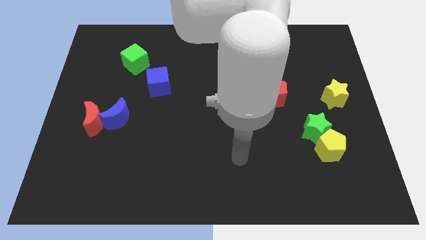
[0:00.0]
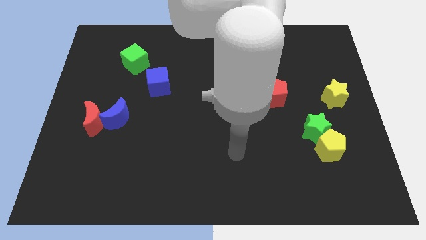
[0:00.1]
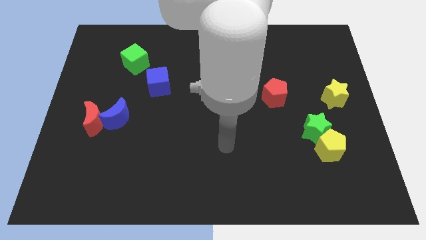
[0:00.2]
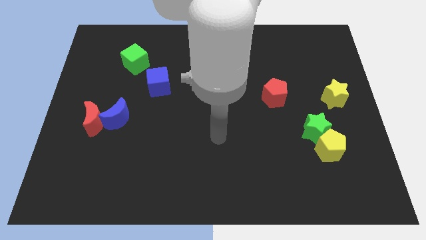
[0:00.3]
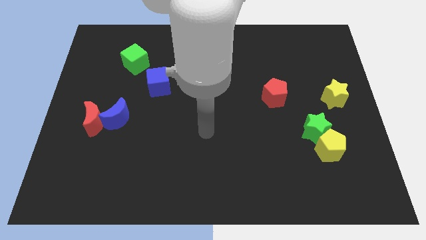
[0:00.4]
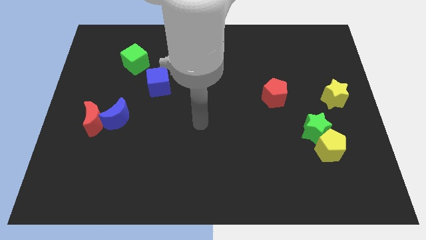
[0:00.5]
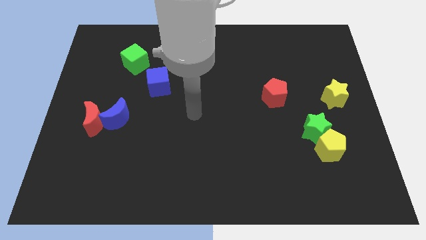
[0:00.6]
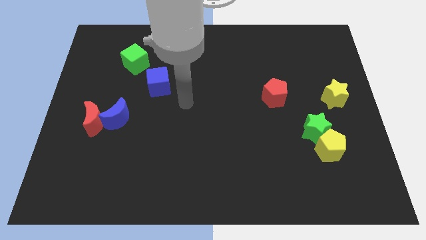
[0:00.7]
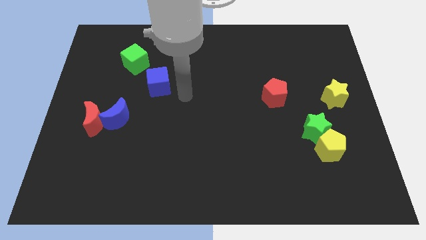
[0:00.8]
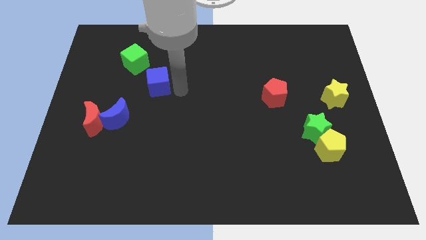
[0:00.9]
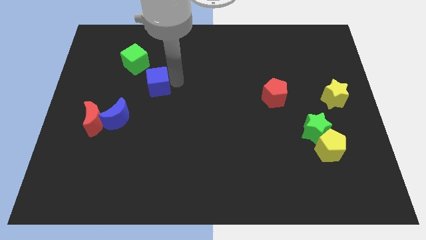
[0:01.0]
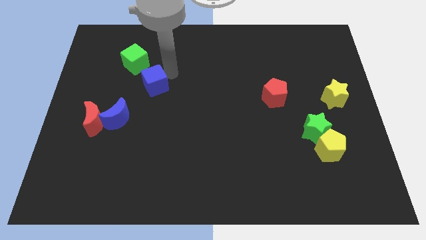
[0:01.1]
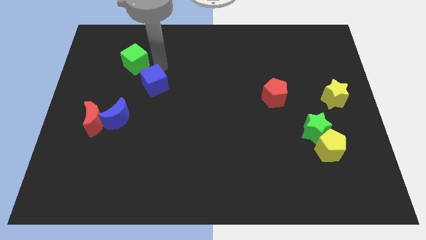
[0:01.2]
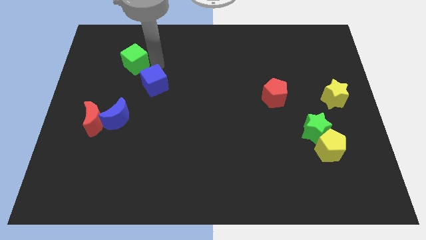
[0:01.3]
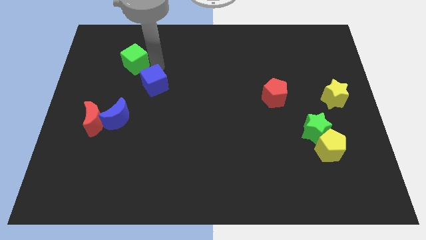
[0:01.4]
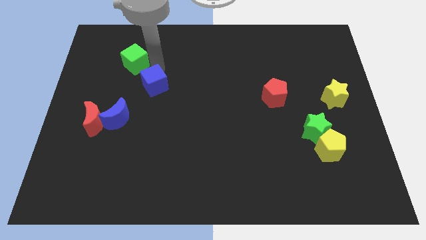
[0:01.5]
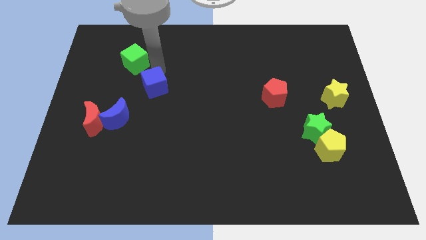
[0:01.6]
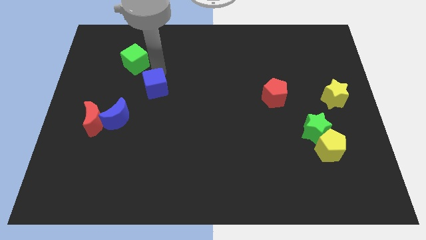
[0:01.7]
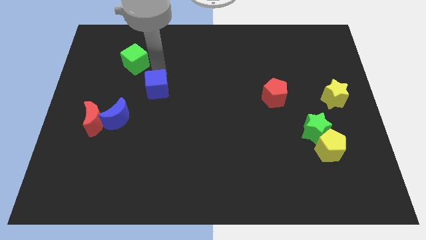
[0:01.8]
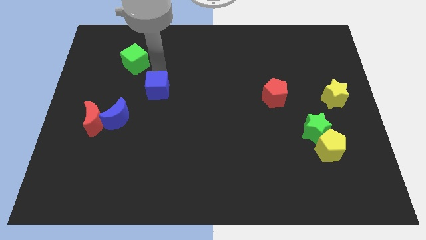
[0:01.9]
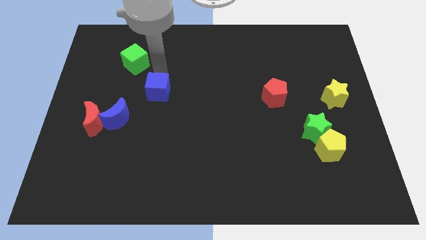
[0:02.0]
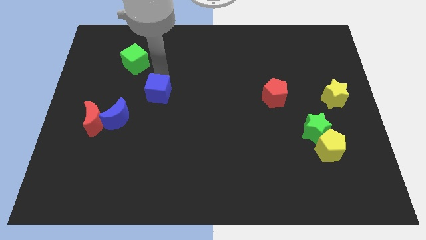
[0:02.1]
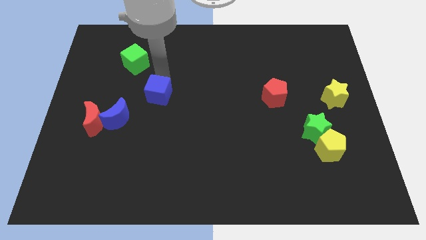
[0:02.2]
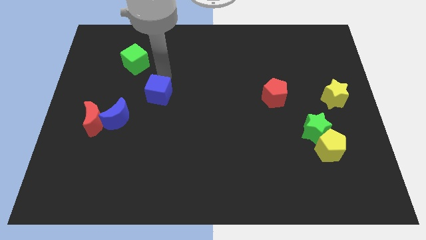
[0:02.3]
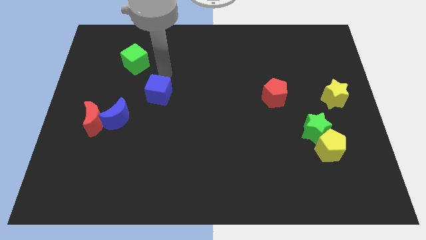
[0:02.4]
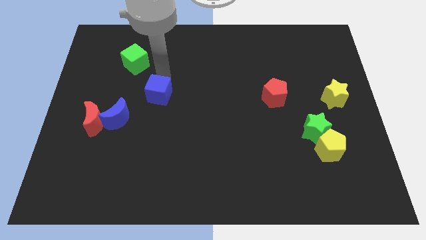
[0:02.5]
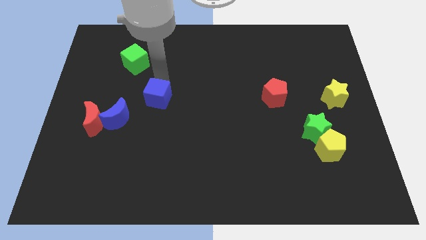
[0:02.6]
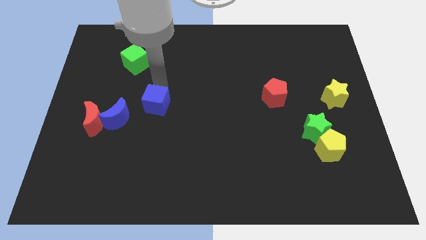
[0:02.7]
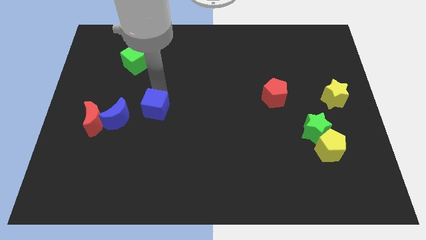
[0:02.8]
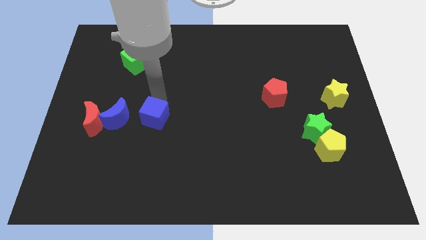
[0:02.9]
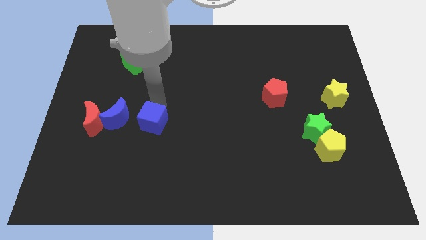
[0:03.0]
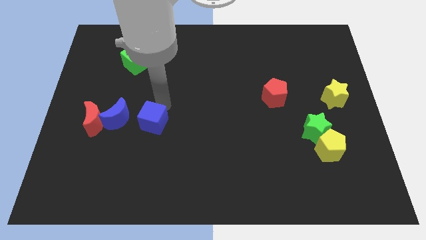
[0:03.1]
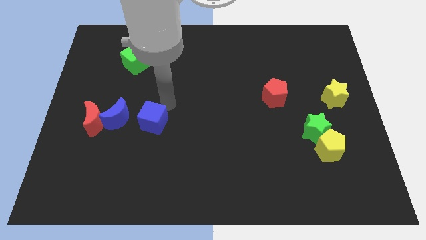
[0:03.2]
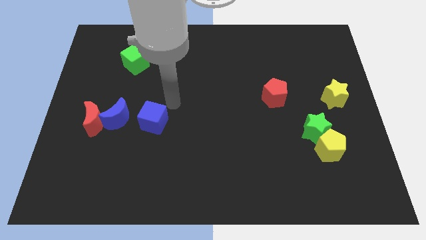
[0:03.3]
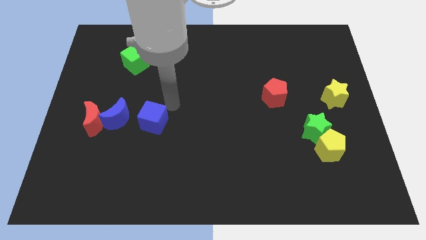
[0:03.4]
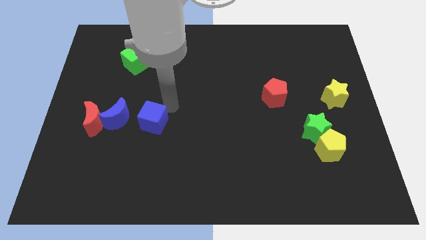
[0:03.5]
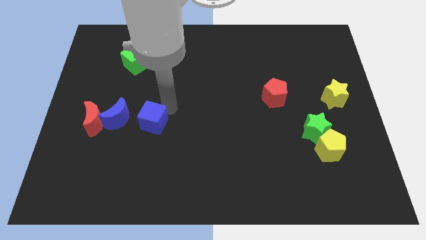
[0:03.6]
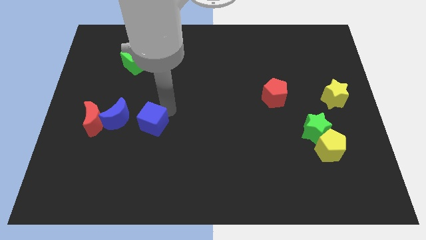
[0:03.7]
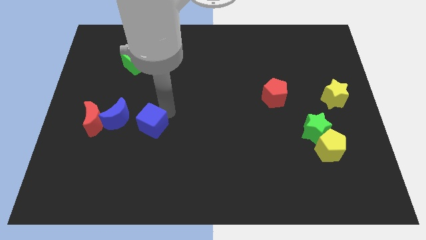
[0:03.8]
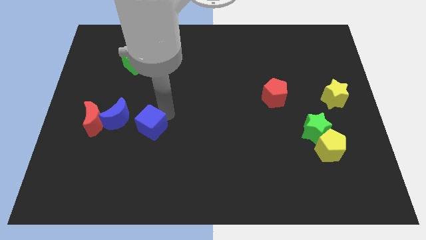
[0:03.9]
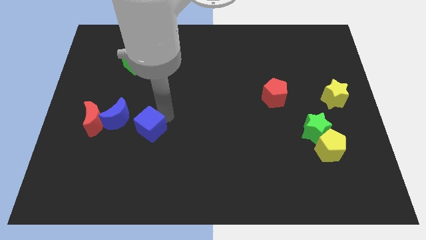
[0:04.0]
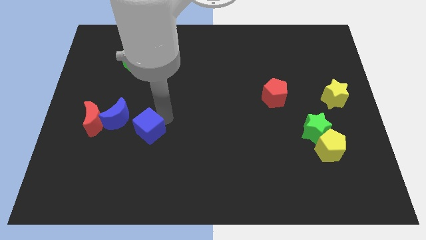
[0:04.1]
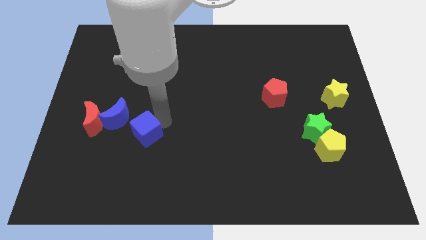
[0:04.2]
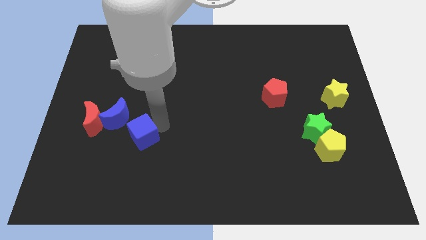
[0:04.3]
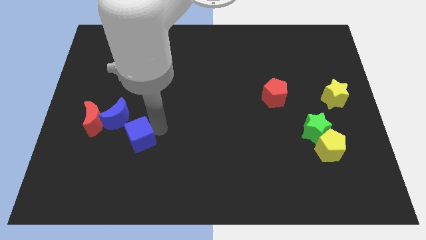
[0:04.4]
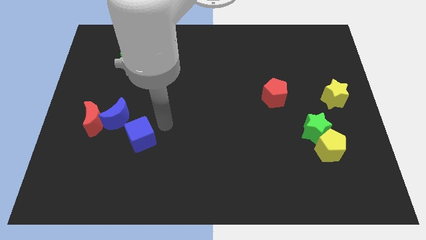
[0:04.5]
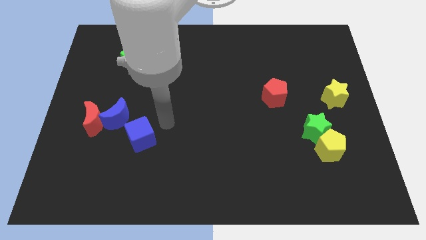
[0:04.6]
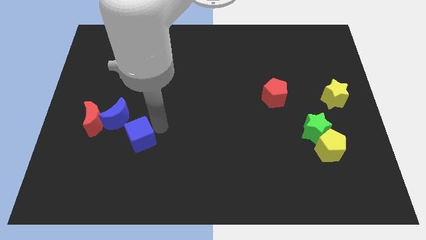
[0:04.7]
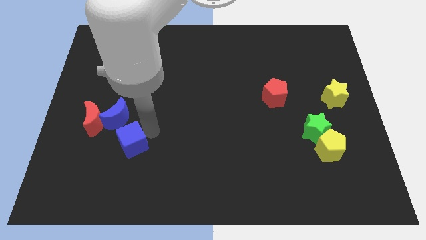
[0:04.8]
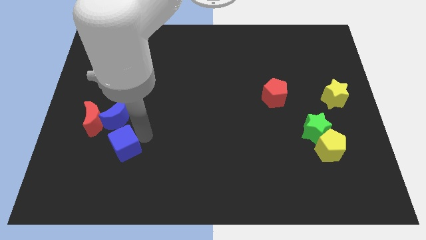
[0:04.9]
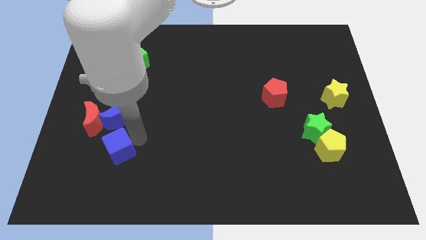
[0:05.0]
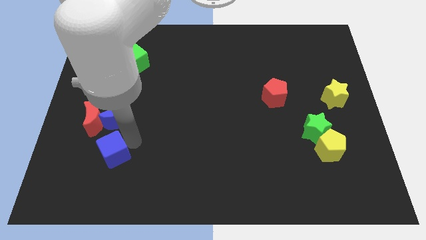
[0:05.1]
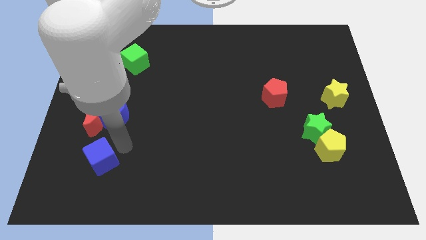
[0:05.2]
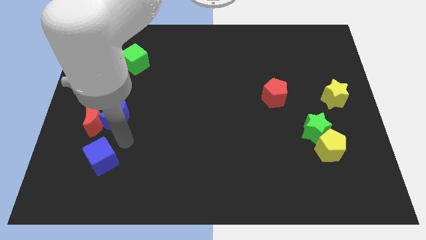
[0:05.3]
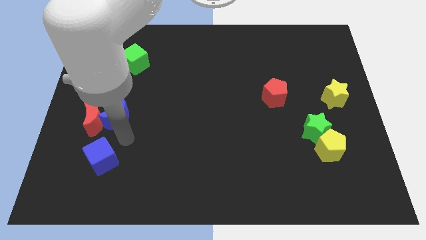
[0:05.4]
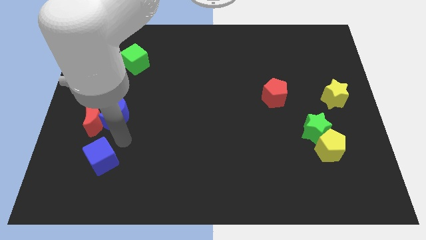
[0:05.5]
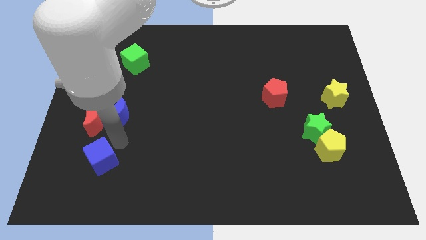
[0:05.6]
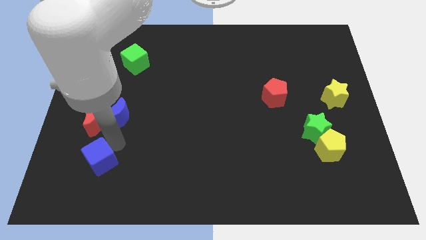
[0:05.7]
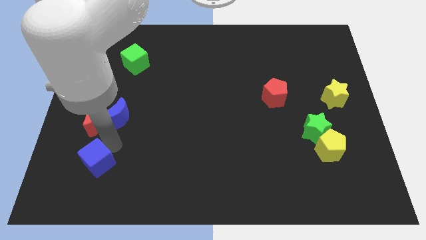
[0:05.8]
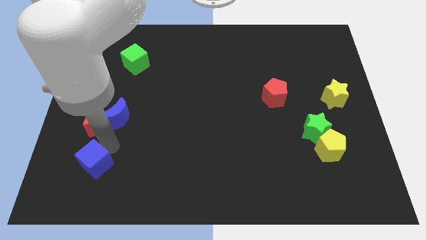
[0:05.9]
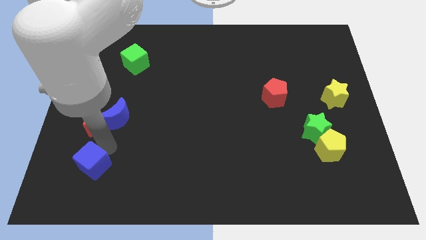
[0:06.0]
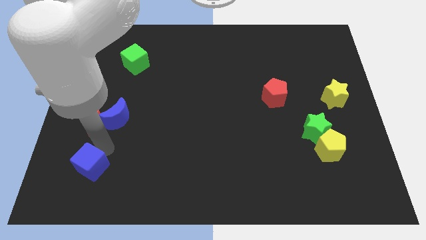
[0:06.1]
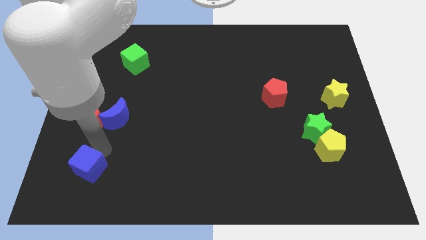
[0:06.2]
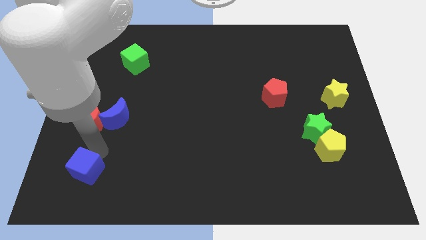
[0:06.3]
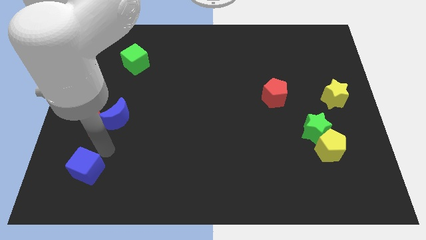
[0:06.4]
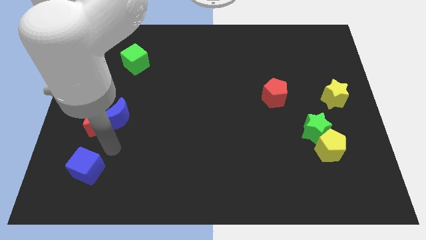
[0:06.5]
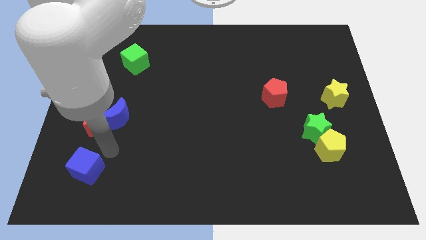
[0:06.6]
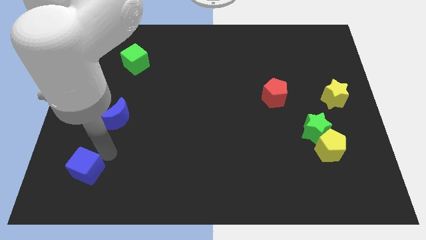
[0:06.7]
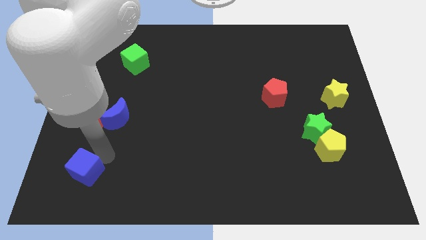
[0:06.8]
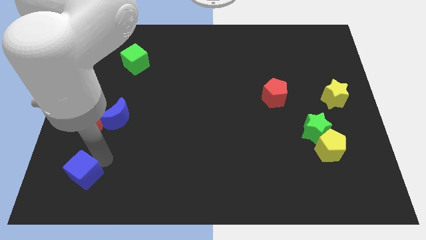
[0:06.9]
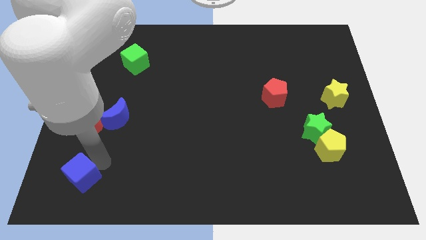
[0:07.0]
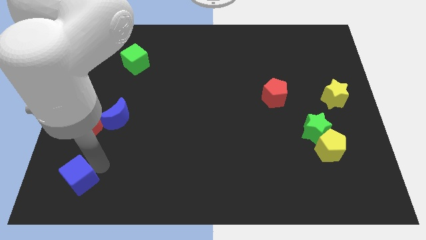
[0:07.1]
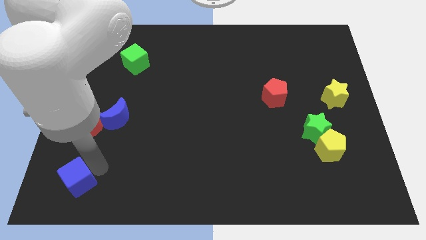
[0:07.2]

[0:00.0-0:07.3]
slide the blue cube to the bottom left corner
